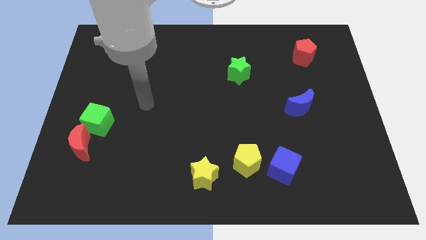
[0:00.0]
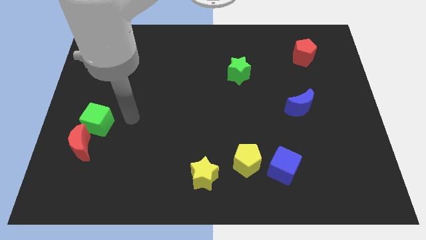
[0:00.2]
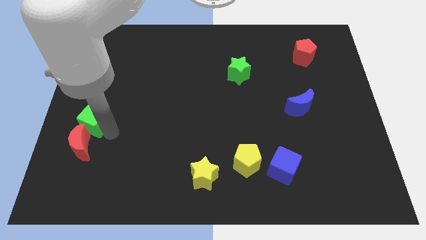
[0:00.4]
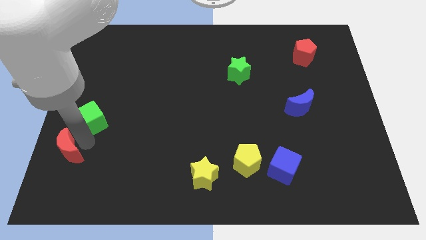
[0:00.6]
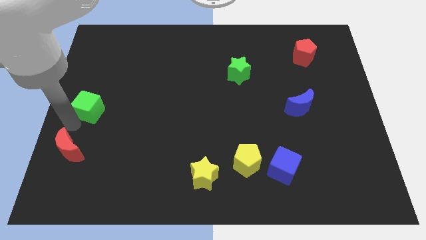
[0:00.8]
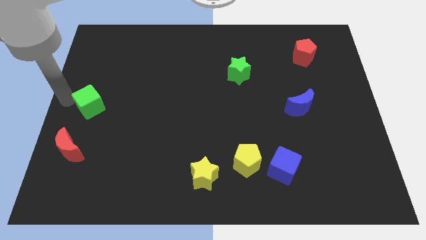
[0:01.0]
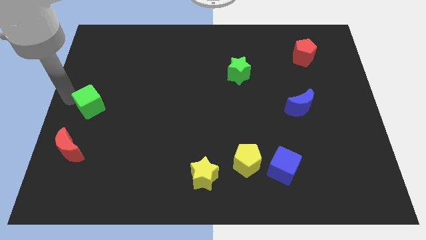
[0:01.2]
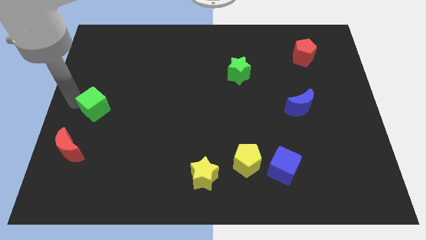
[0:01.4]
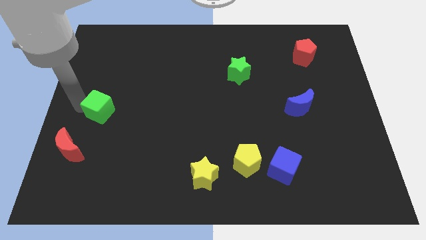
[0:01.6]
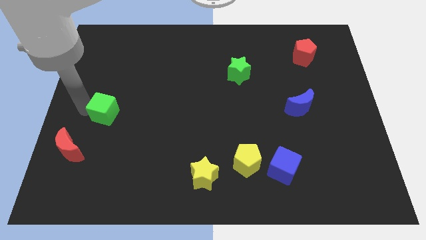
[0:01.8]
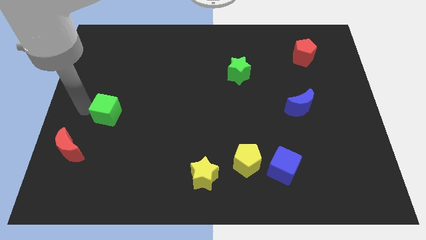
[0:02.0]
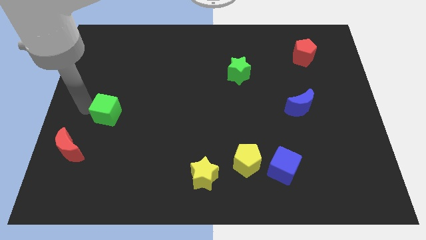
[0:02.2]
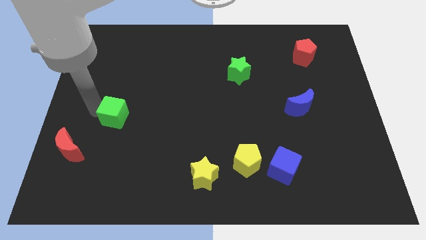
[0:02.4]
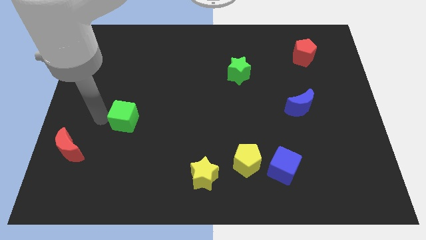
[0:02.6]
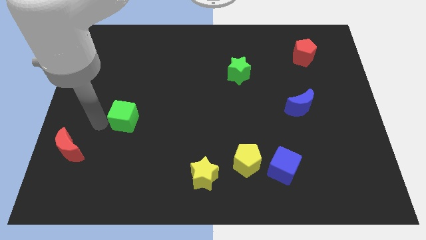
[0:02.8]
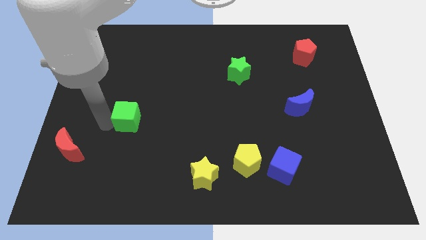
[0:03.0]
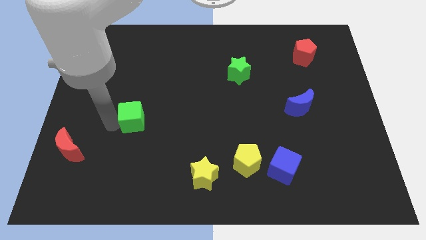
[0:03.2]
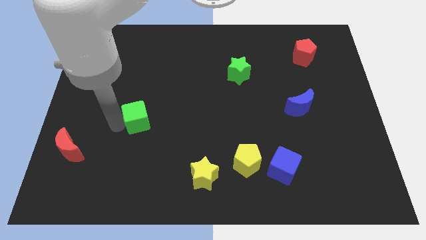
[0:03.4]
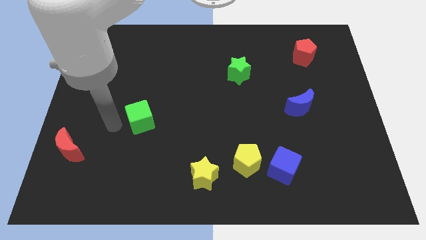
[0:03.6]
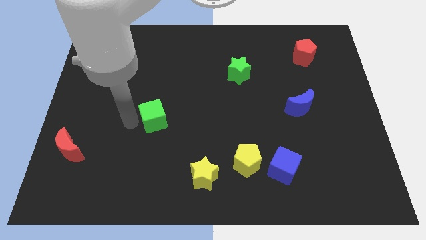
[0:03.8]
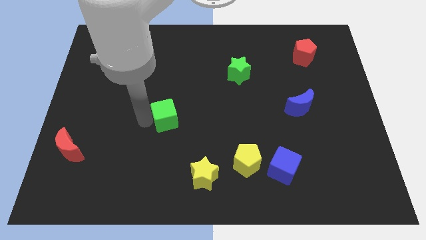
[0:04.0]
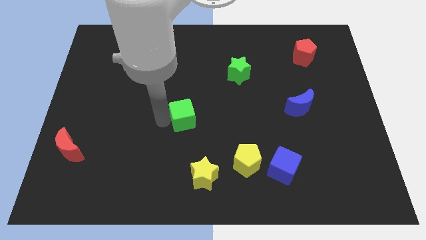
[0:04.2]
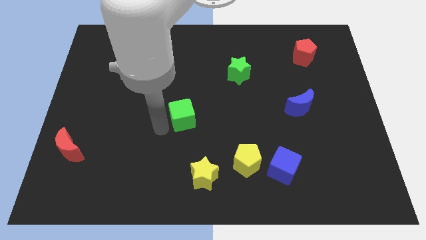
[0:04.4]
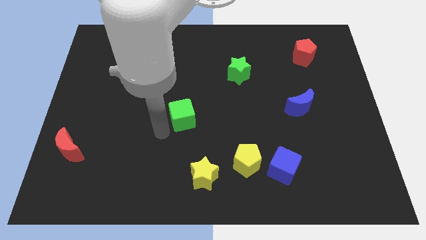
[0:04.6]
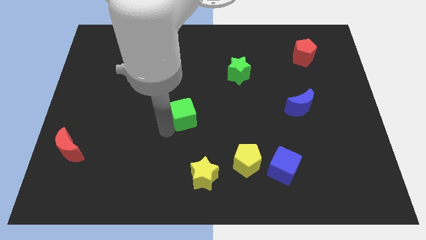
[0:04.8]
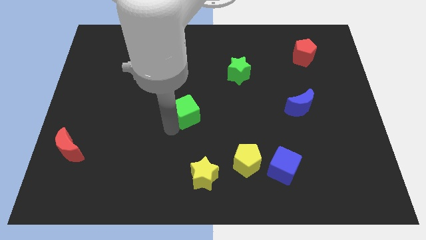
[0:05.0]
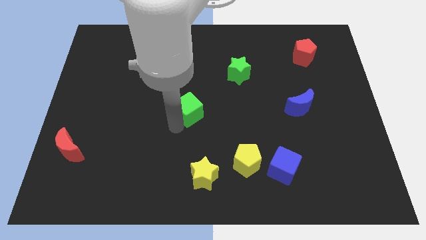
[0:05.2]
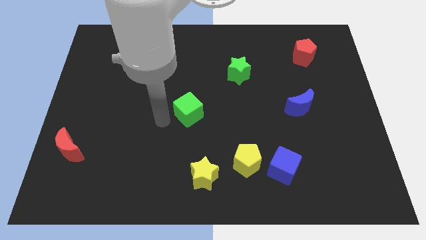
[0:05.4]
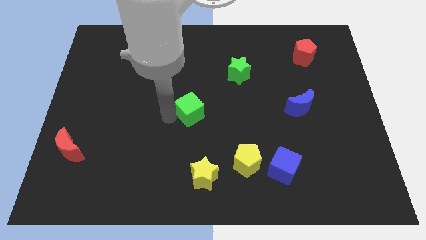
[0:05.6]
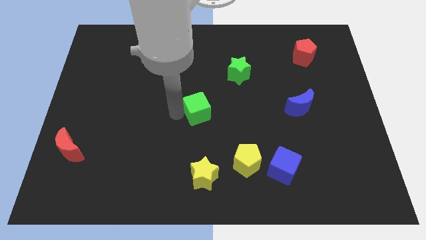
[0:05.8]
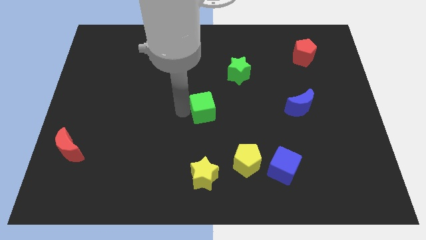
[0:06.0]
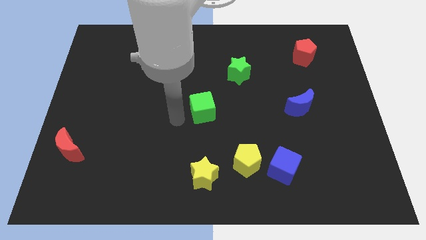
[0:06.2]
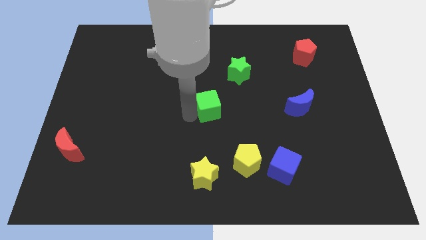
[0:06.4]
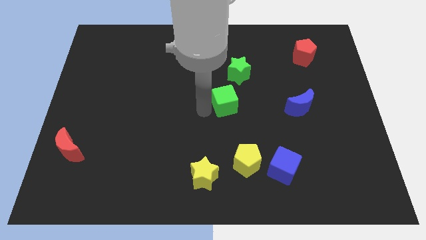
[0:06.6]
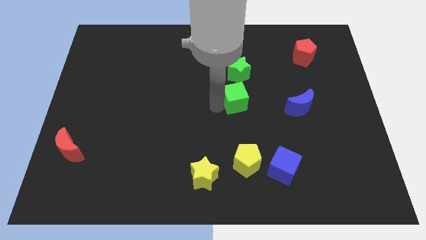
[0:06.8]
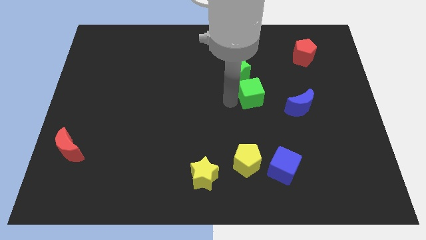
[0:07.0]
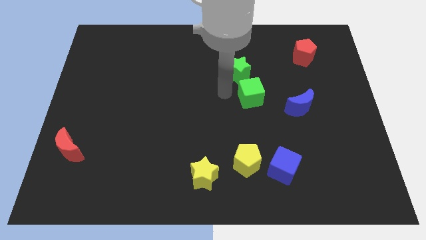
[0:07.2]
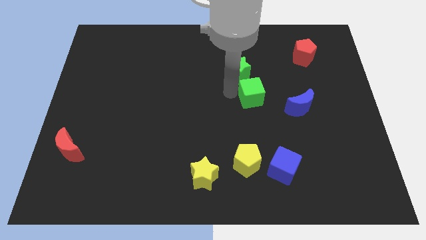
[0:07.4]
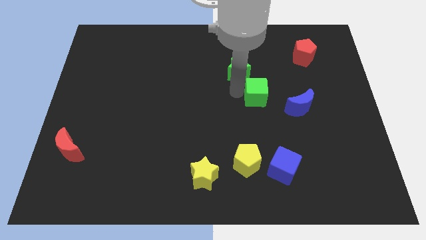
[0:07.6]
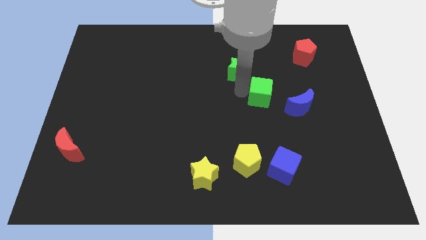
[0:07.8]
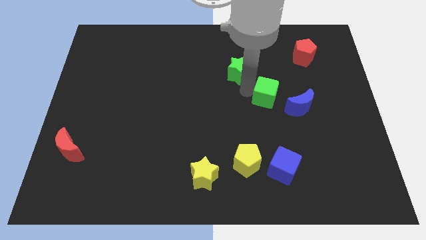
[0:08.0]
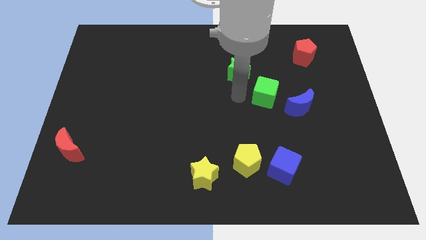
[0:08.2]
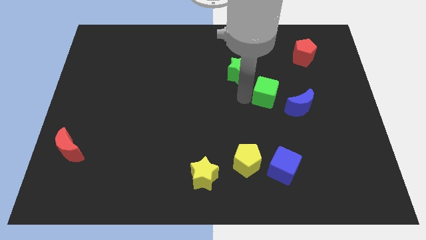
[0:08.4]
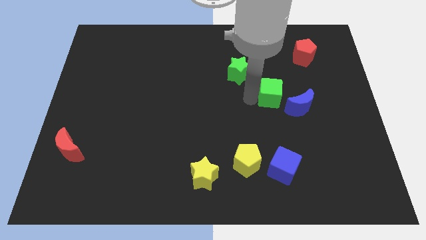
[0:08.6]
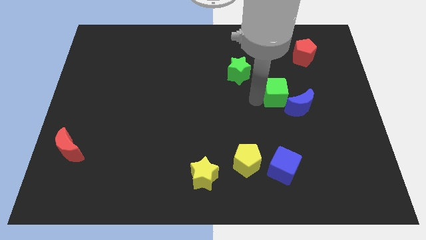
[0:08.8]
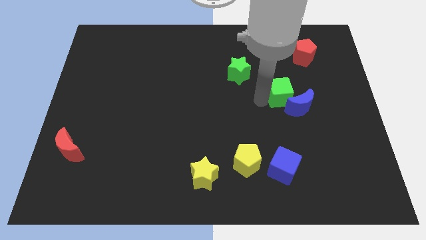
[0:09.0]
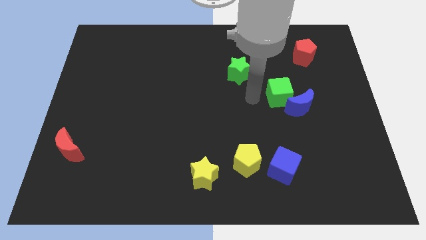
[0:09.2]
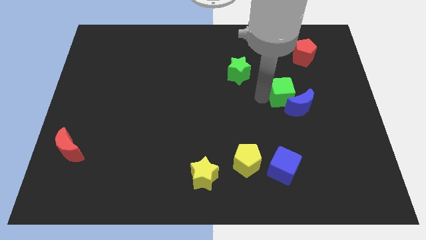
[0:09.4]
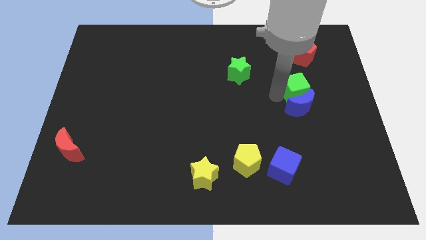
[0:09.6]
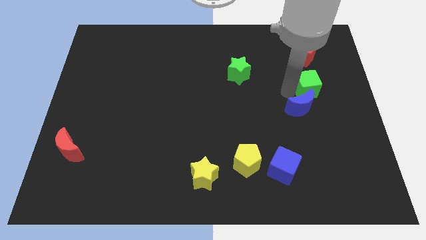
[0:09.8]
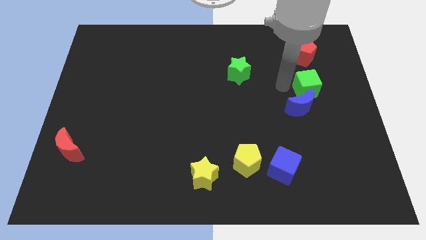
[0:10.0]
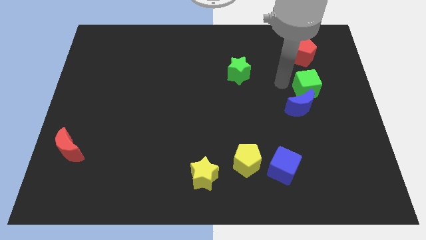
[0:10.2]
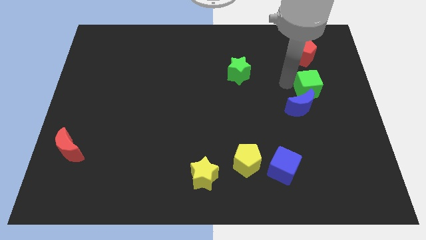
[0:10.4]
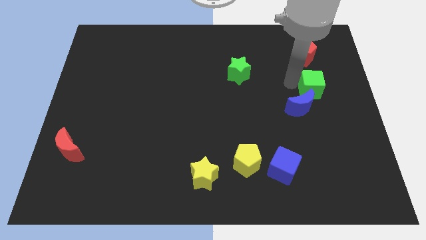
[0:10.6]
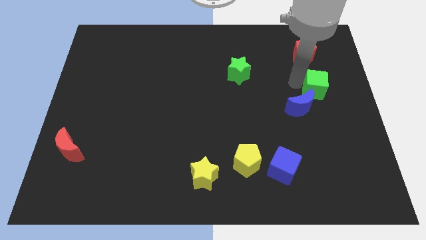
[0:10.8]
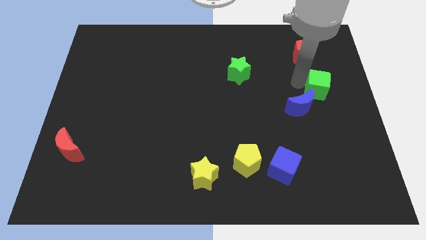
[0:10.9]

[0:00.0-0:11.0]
move the green cube to the right side of the board
